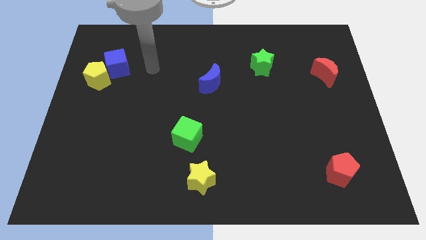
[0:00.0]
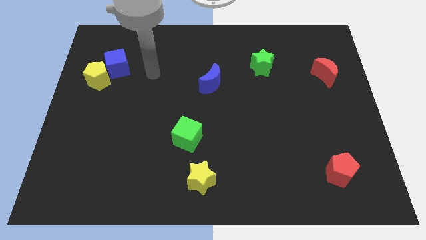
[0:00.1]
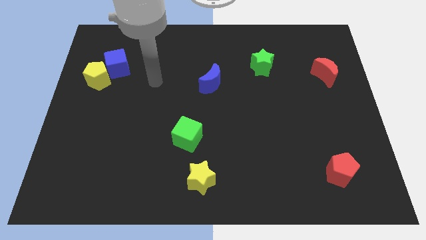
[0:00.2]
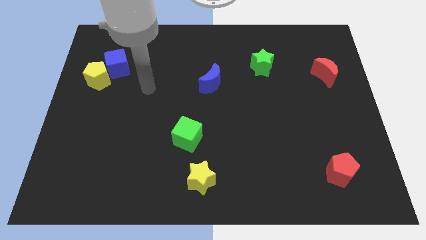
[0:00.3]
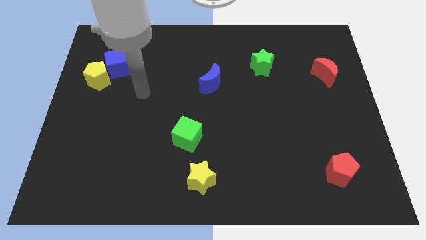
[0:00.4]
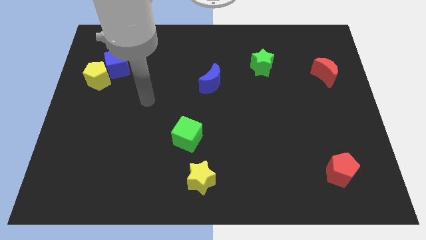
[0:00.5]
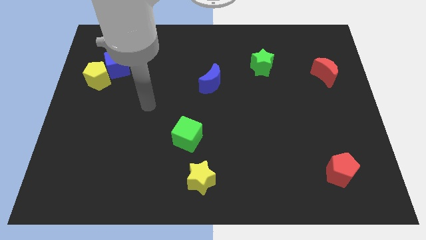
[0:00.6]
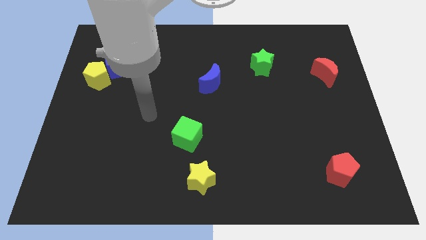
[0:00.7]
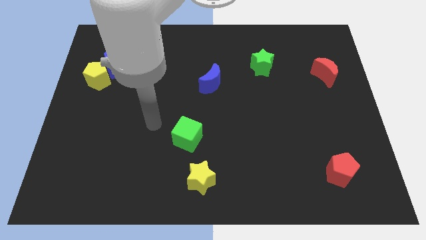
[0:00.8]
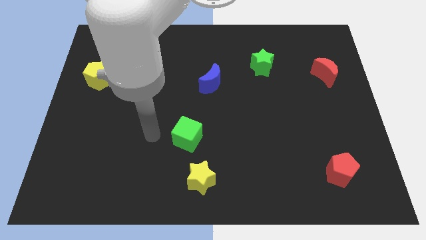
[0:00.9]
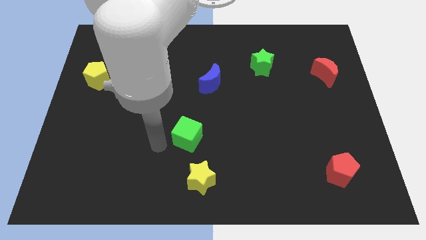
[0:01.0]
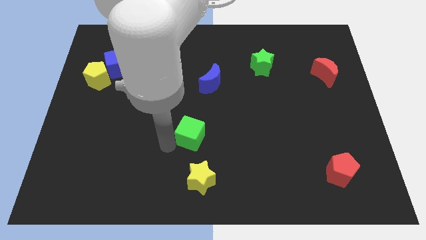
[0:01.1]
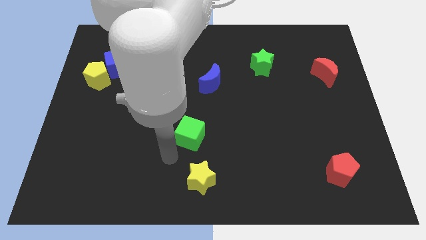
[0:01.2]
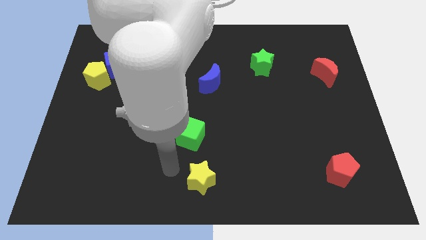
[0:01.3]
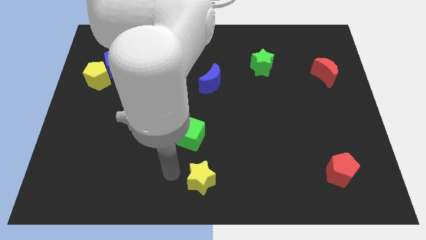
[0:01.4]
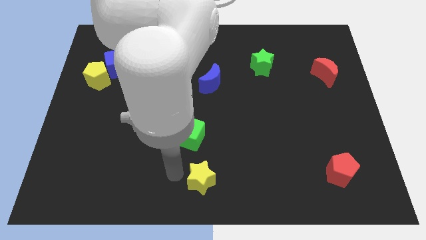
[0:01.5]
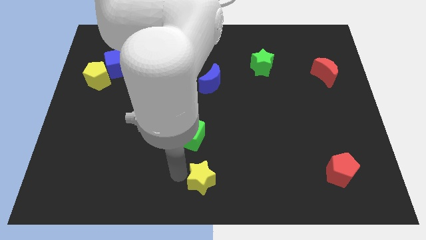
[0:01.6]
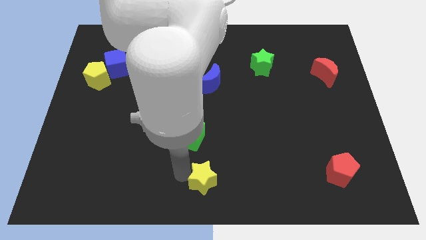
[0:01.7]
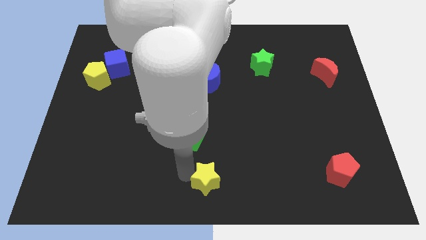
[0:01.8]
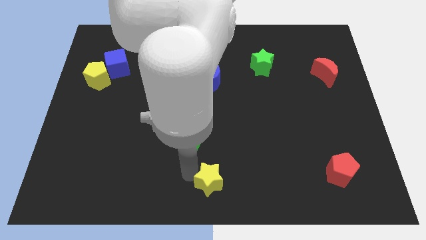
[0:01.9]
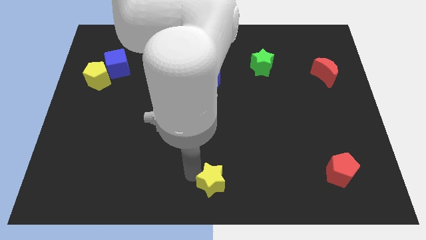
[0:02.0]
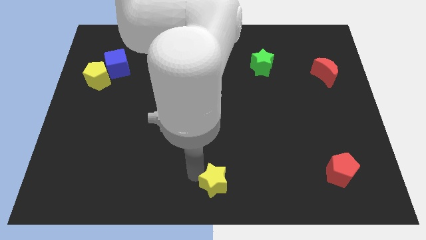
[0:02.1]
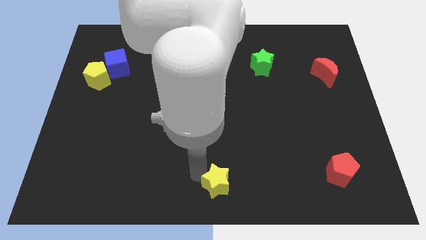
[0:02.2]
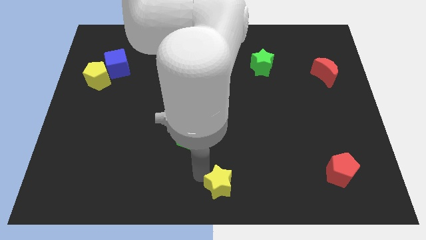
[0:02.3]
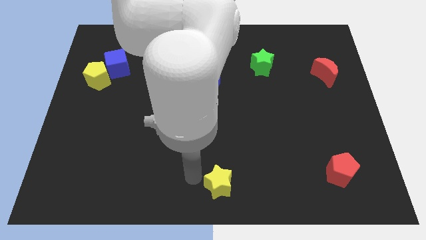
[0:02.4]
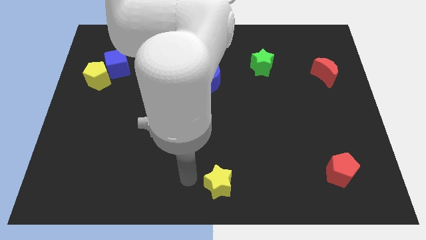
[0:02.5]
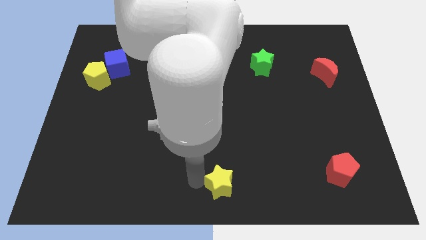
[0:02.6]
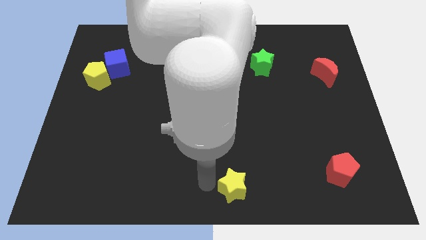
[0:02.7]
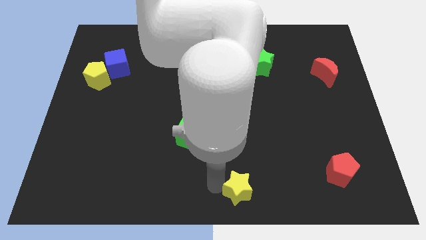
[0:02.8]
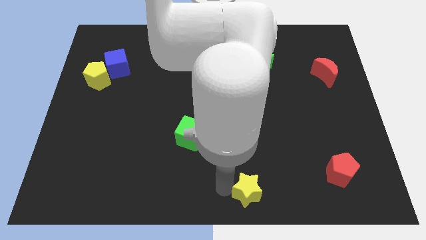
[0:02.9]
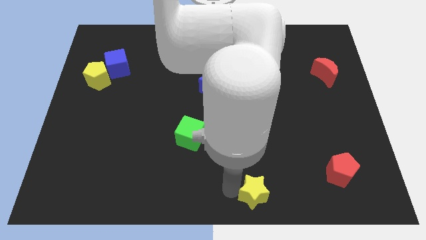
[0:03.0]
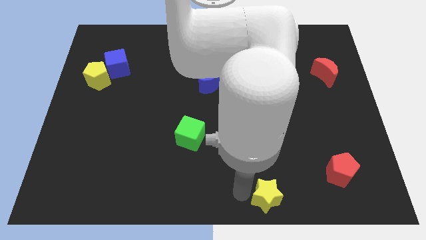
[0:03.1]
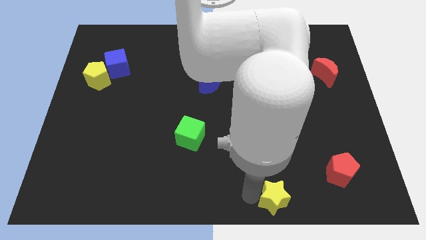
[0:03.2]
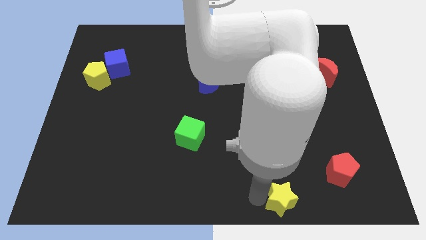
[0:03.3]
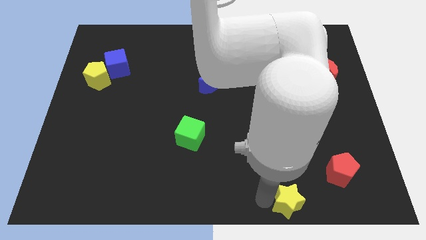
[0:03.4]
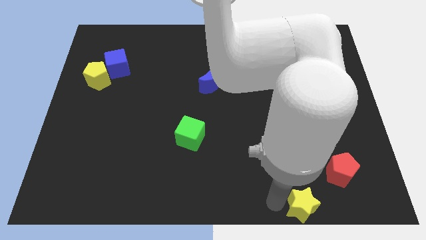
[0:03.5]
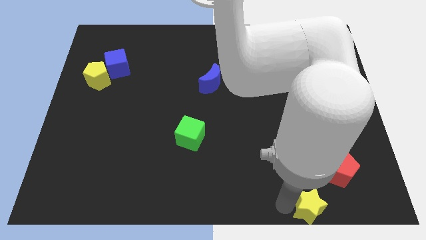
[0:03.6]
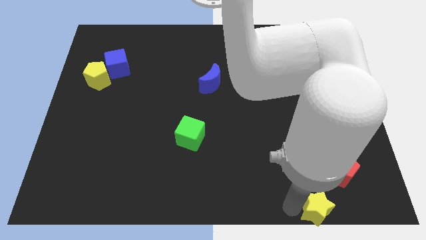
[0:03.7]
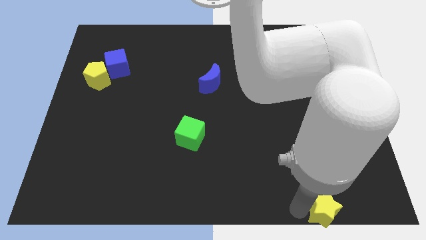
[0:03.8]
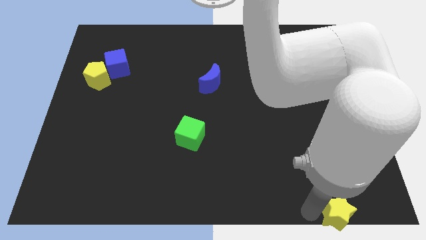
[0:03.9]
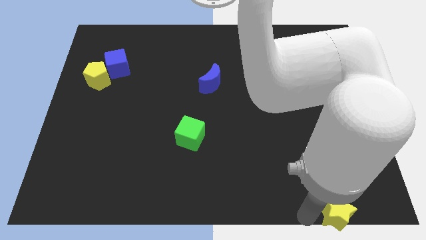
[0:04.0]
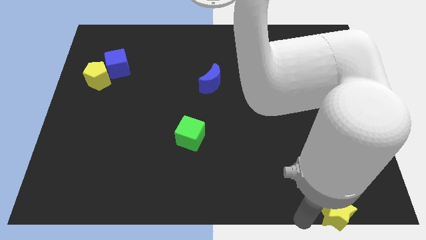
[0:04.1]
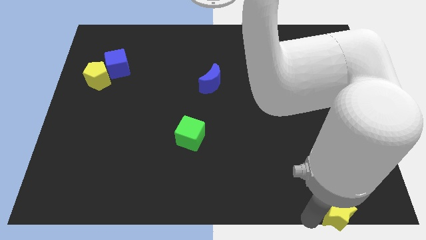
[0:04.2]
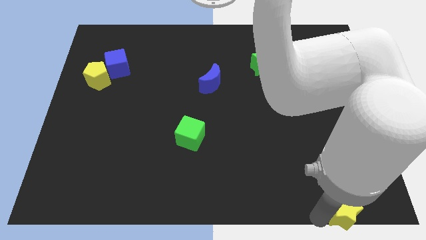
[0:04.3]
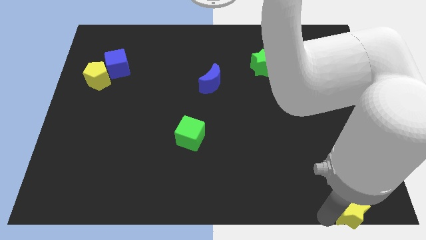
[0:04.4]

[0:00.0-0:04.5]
put the yellow star to the bottom right

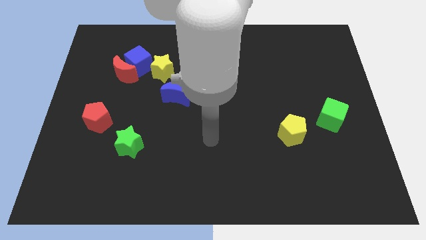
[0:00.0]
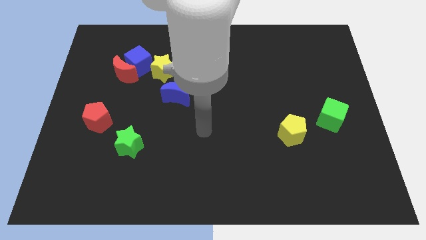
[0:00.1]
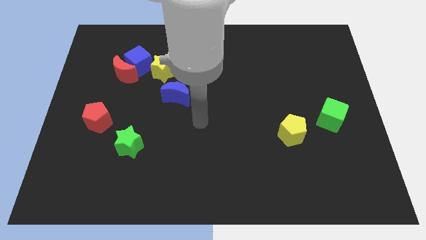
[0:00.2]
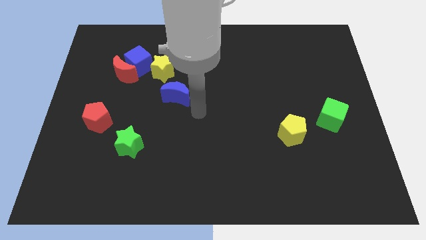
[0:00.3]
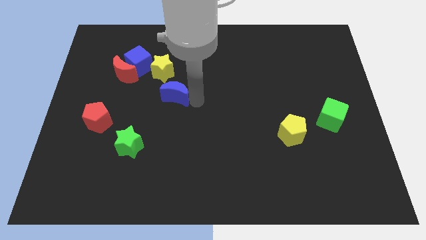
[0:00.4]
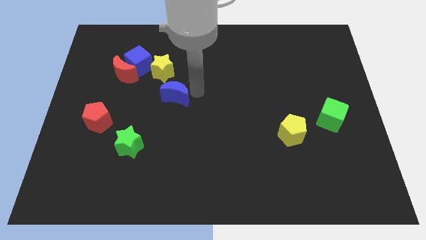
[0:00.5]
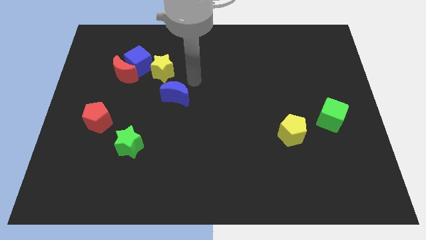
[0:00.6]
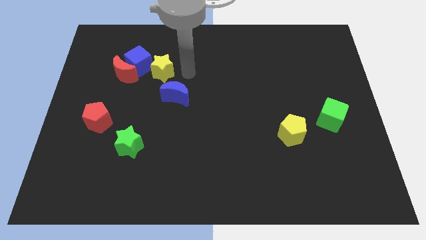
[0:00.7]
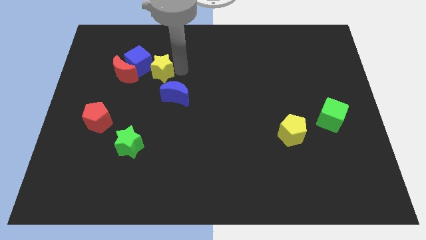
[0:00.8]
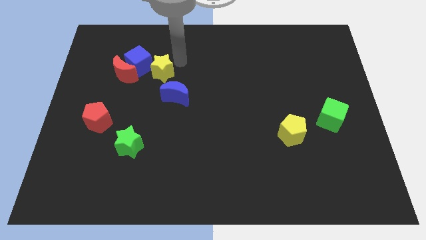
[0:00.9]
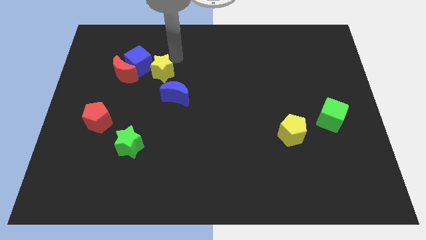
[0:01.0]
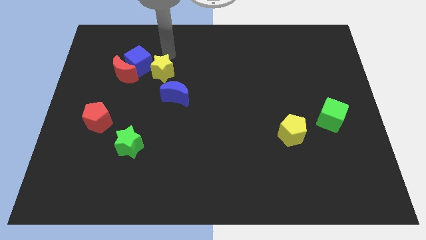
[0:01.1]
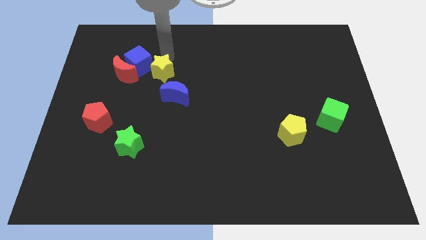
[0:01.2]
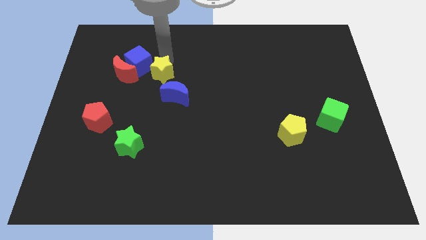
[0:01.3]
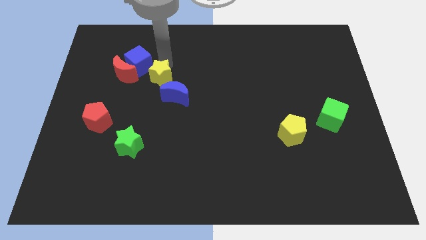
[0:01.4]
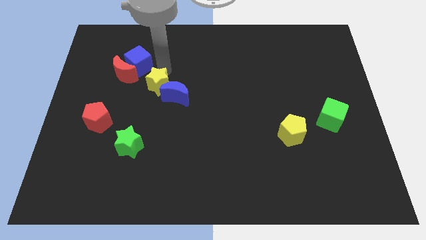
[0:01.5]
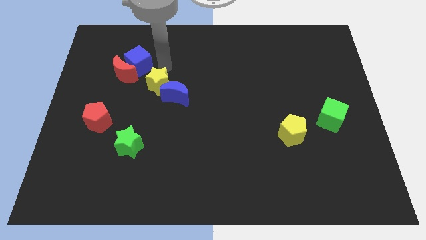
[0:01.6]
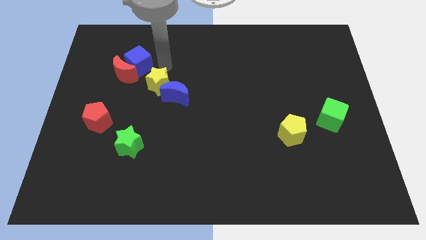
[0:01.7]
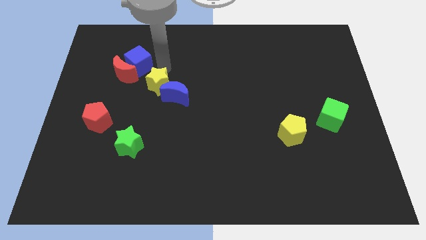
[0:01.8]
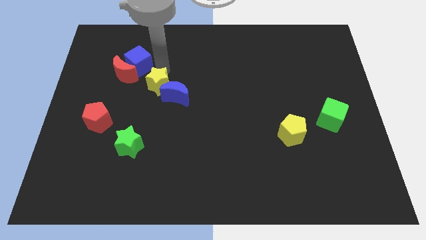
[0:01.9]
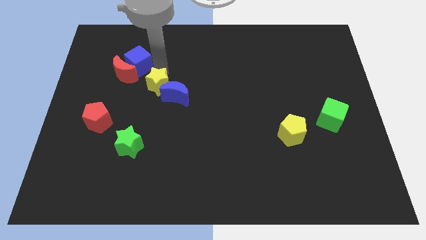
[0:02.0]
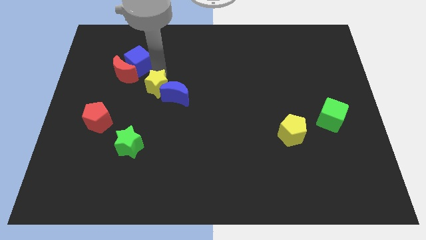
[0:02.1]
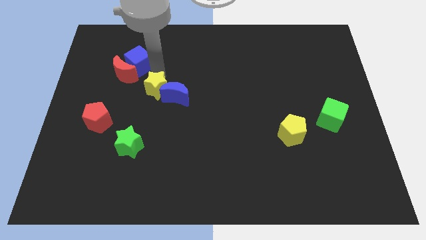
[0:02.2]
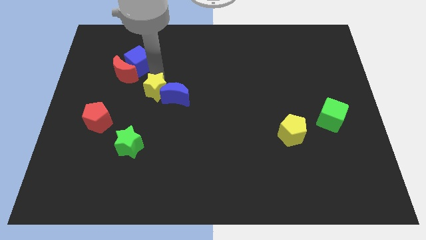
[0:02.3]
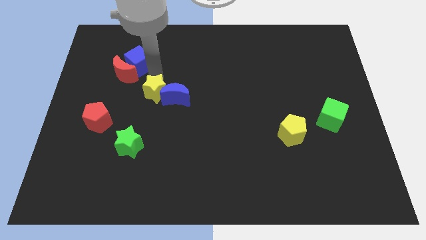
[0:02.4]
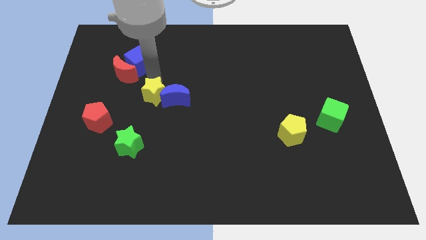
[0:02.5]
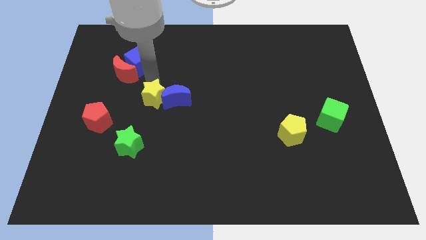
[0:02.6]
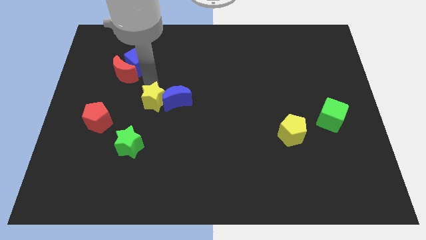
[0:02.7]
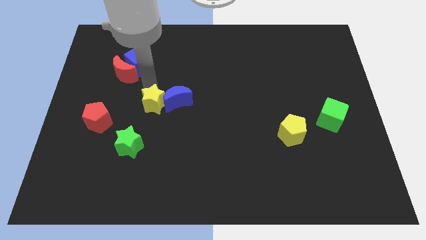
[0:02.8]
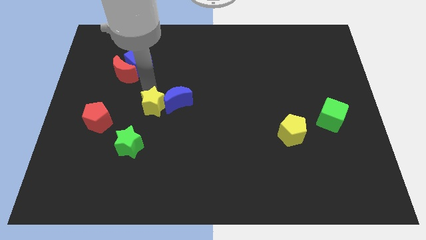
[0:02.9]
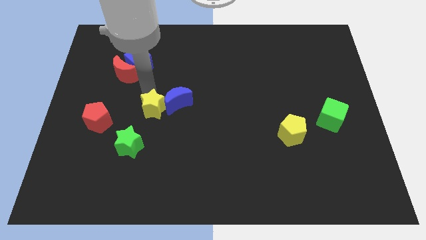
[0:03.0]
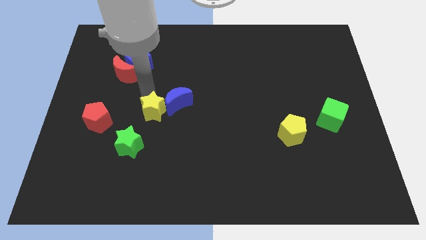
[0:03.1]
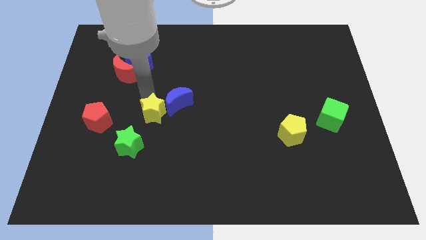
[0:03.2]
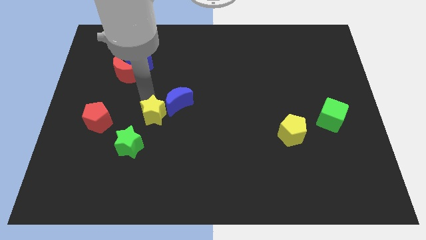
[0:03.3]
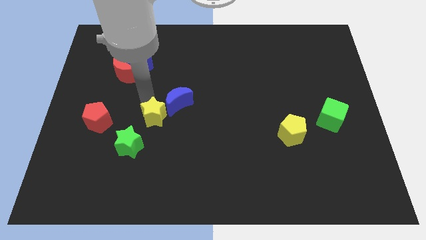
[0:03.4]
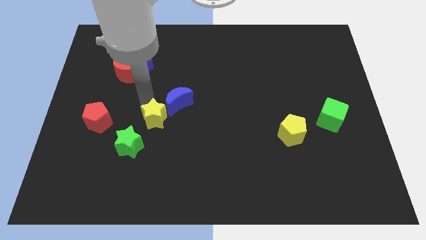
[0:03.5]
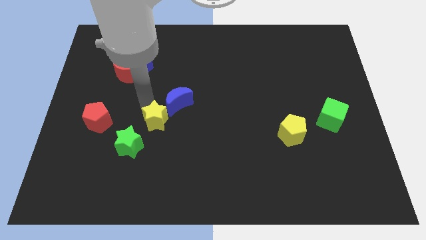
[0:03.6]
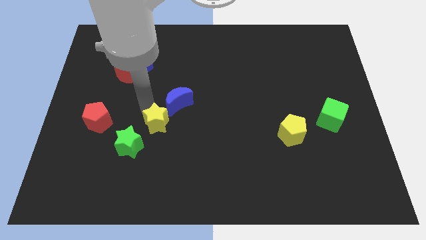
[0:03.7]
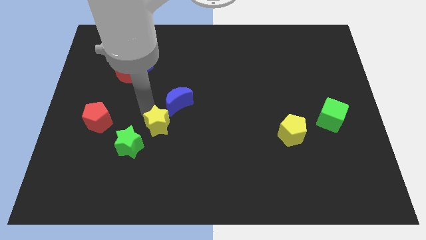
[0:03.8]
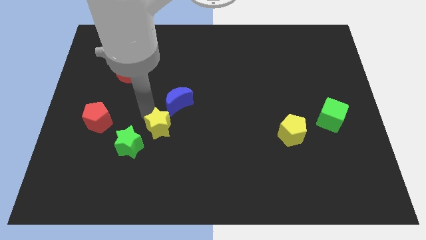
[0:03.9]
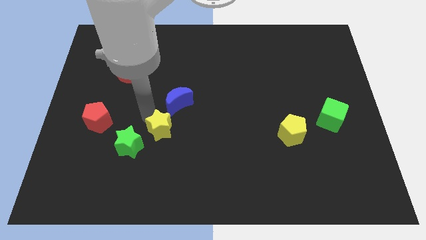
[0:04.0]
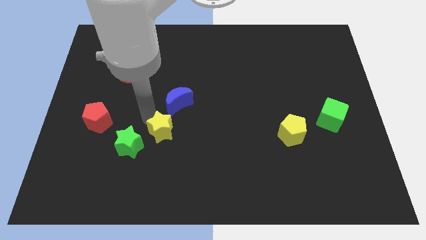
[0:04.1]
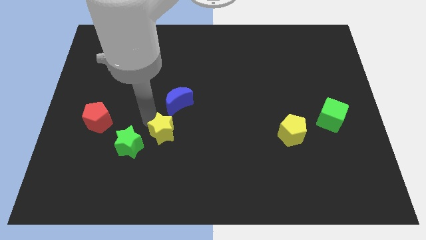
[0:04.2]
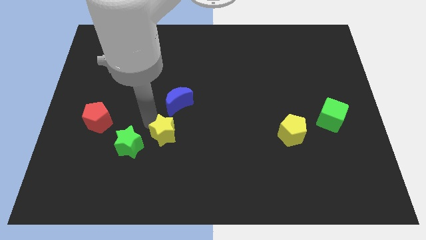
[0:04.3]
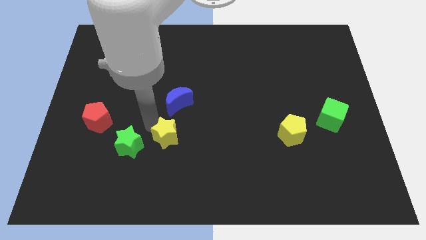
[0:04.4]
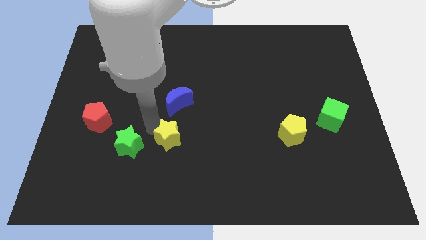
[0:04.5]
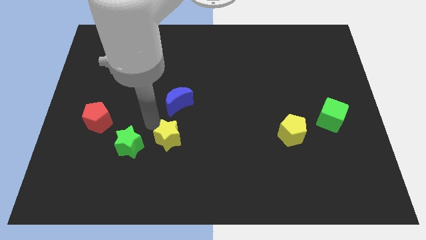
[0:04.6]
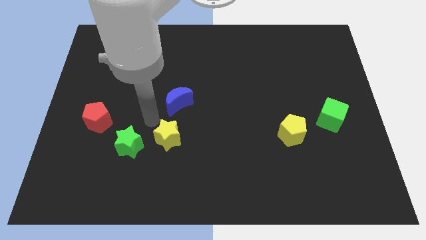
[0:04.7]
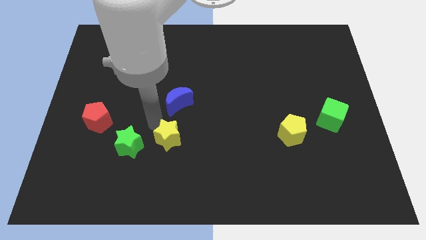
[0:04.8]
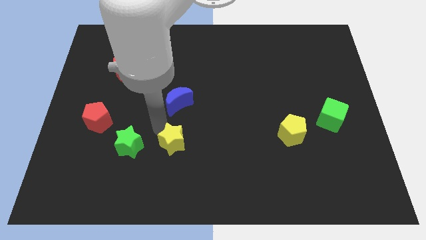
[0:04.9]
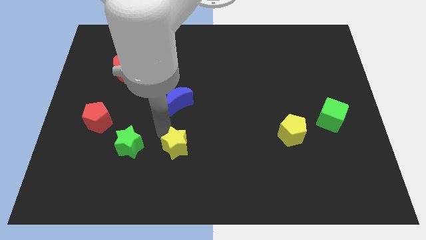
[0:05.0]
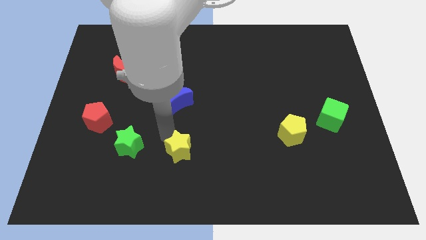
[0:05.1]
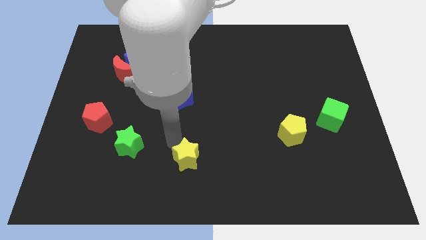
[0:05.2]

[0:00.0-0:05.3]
push the yellow star to the bottom side
